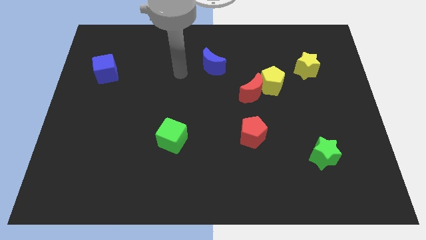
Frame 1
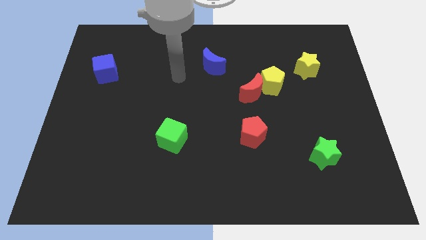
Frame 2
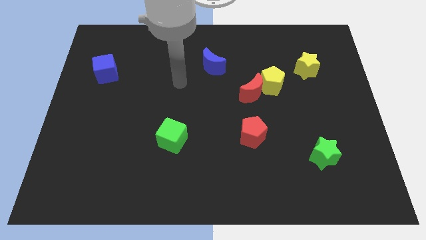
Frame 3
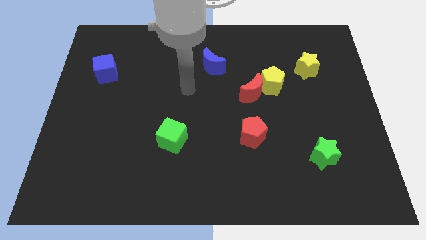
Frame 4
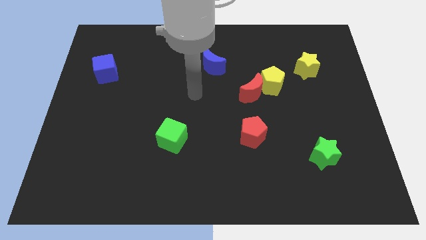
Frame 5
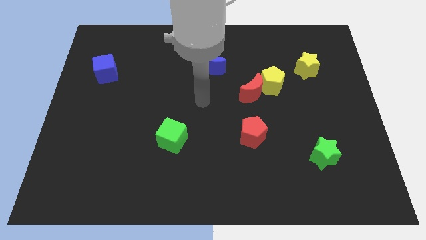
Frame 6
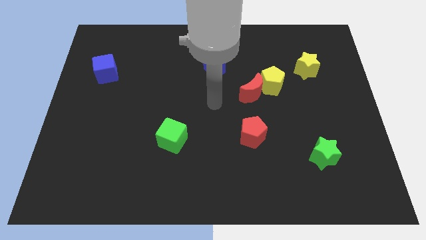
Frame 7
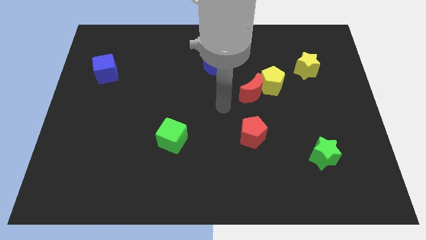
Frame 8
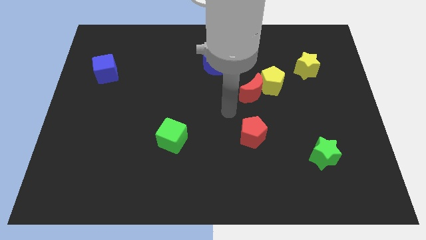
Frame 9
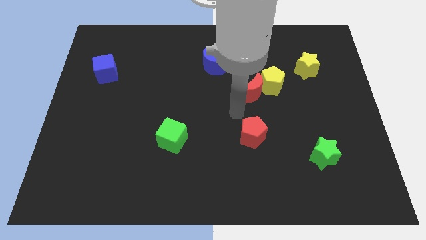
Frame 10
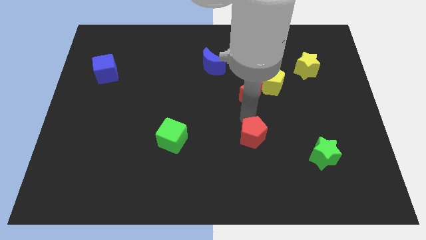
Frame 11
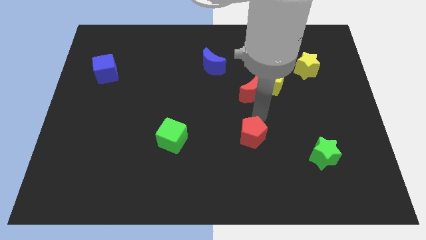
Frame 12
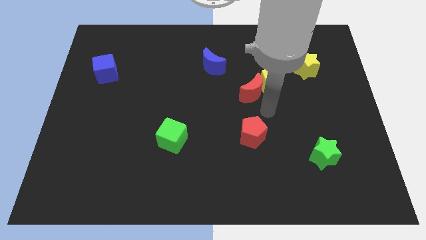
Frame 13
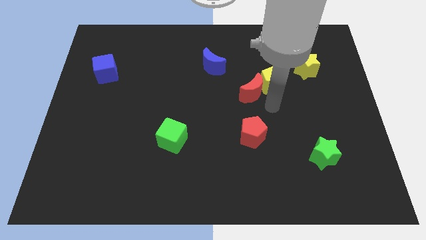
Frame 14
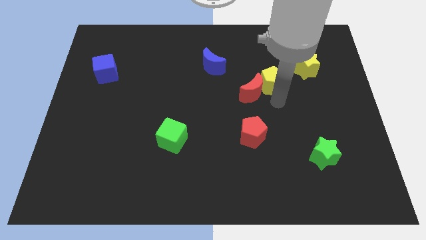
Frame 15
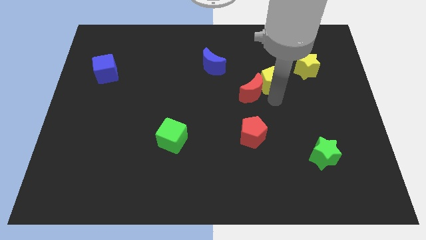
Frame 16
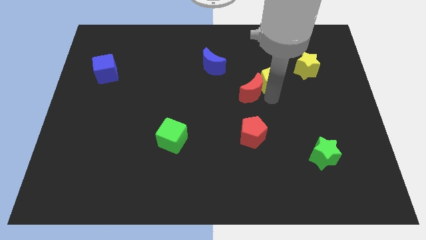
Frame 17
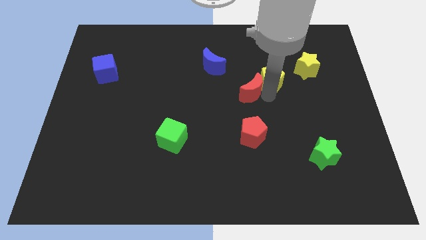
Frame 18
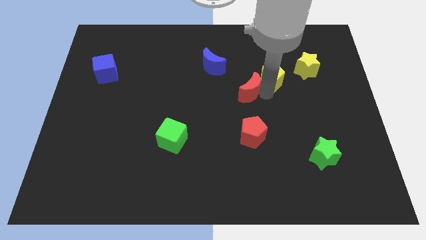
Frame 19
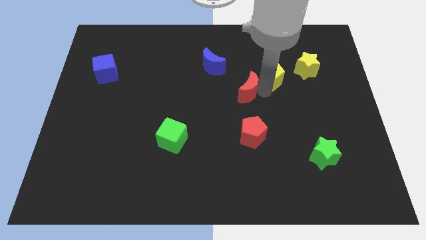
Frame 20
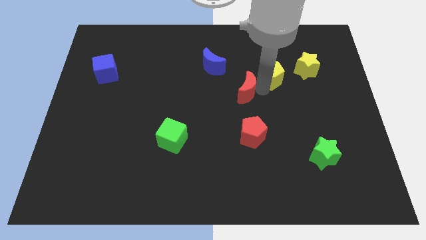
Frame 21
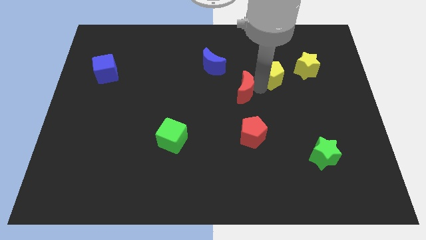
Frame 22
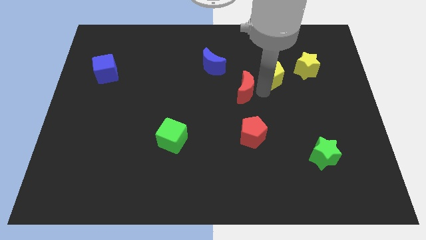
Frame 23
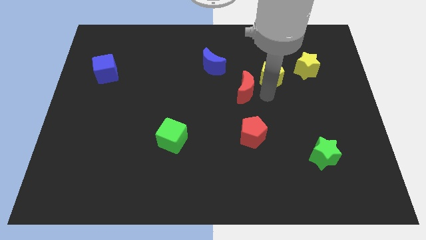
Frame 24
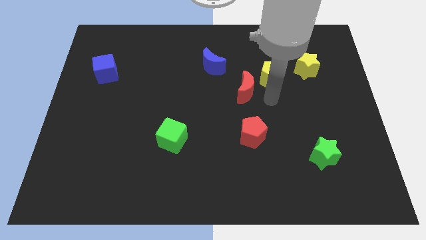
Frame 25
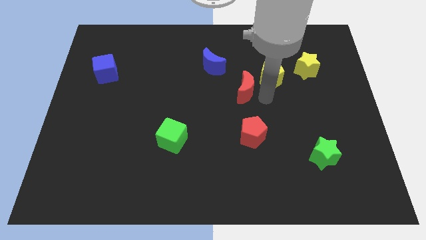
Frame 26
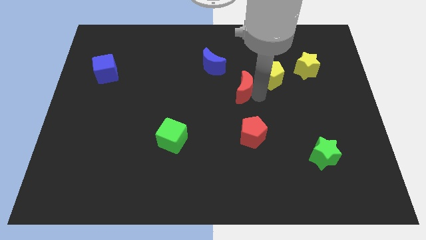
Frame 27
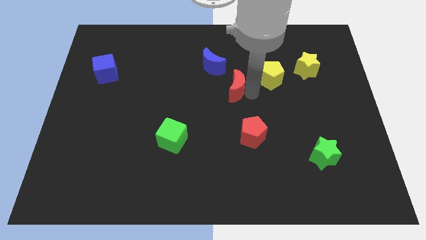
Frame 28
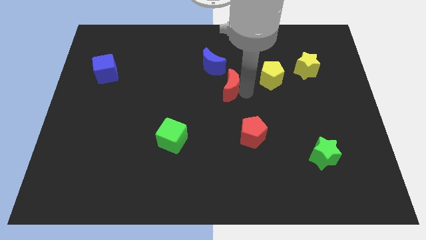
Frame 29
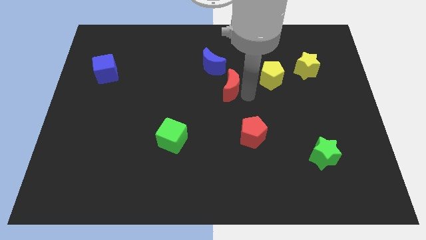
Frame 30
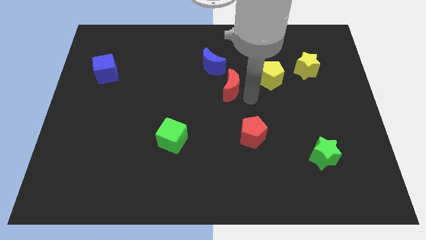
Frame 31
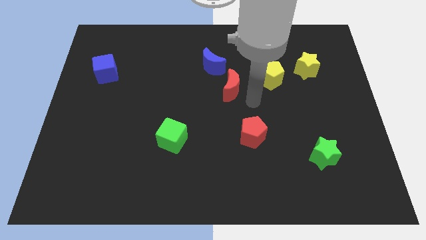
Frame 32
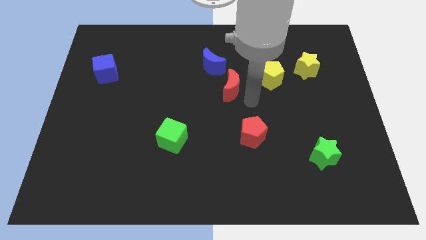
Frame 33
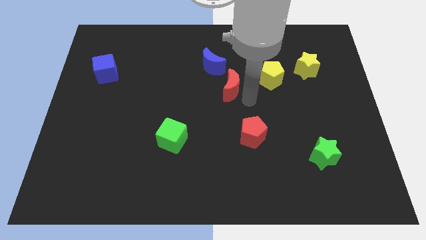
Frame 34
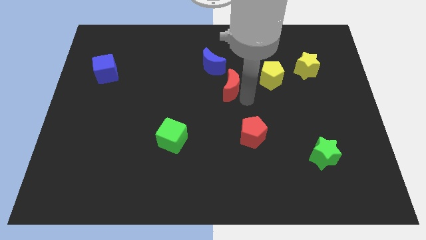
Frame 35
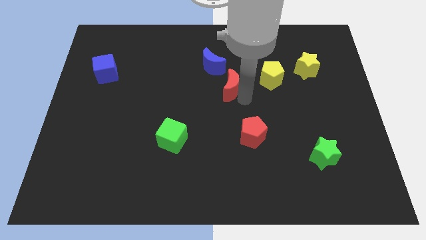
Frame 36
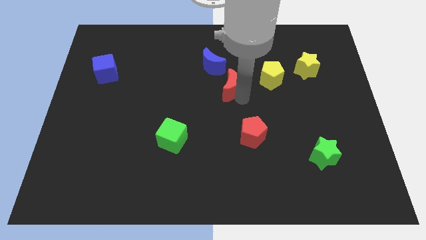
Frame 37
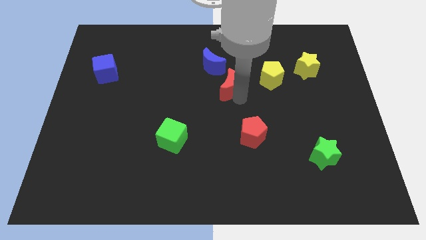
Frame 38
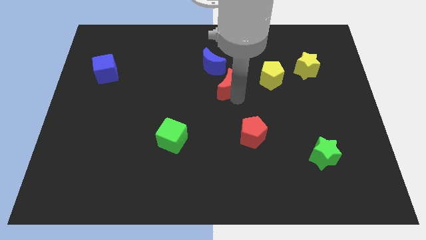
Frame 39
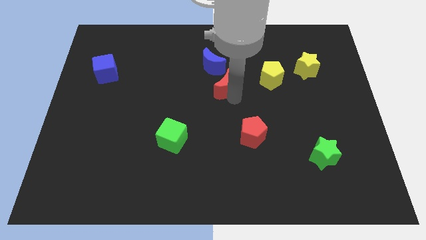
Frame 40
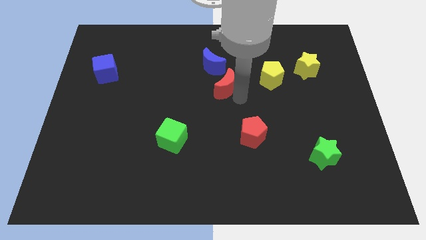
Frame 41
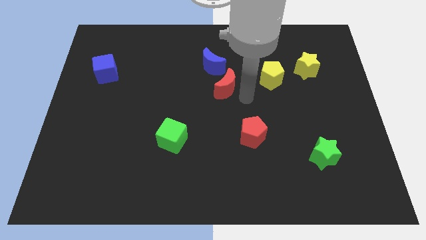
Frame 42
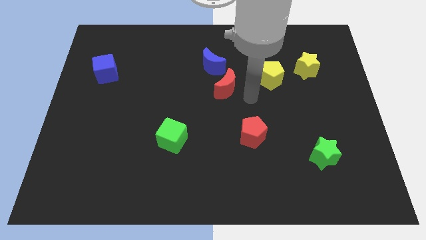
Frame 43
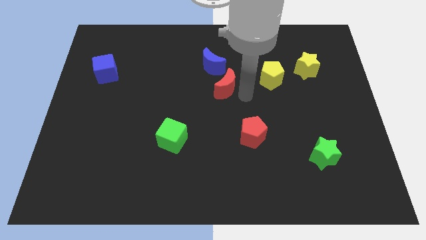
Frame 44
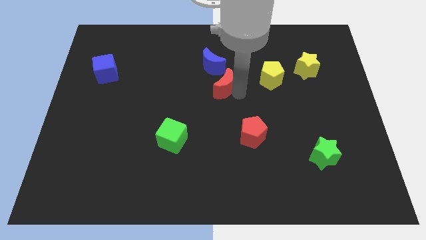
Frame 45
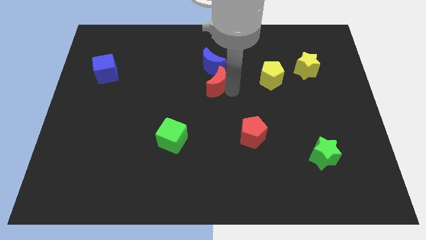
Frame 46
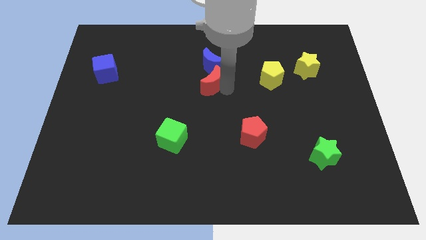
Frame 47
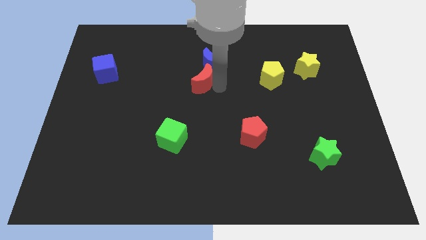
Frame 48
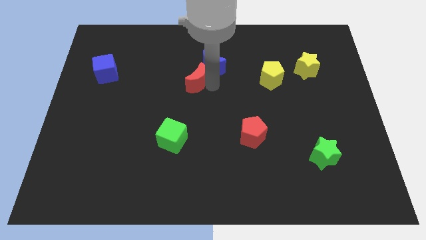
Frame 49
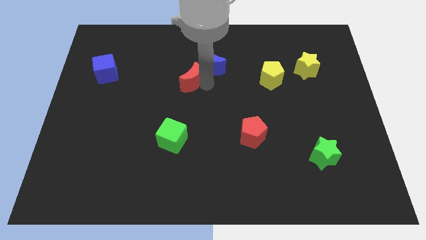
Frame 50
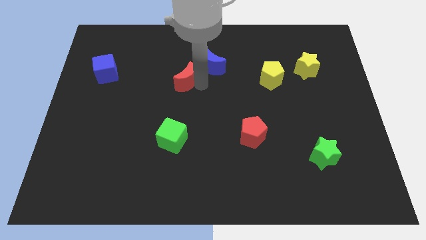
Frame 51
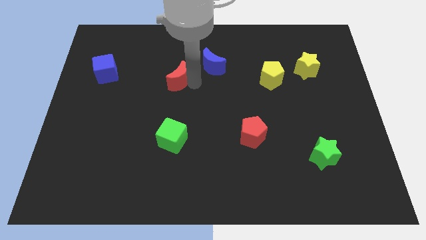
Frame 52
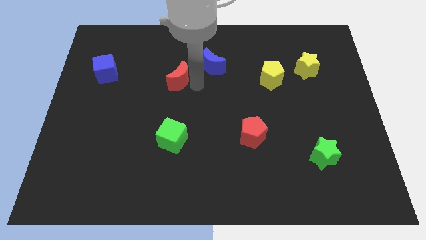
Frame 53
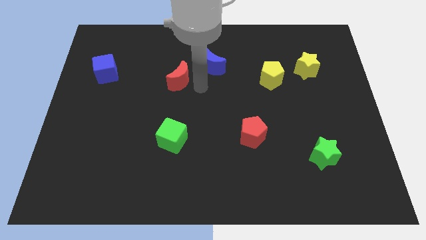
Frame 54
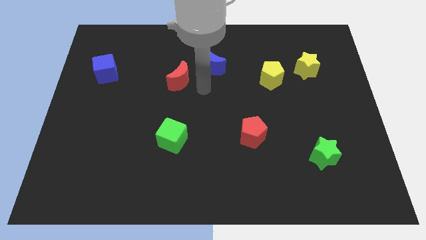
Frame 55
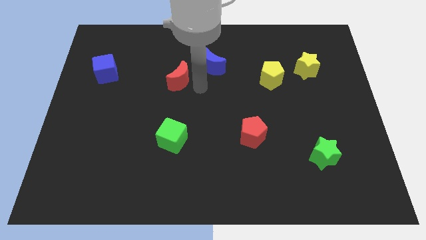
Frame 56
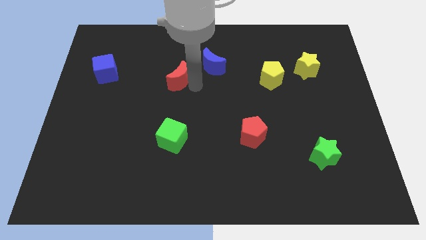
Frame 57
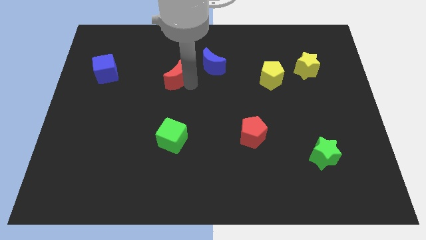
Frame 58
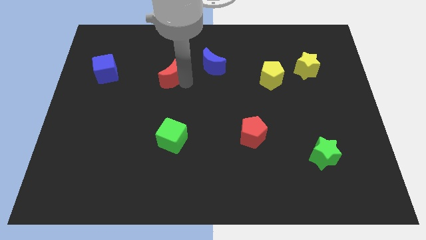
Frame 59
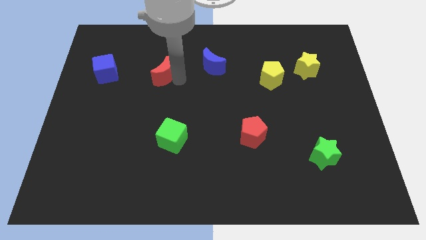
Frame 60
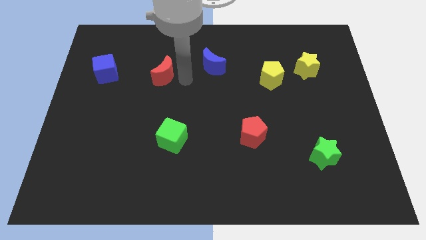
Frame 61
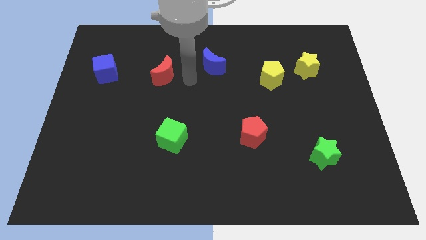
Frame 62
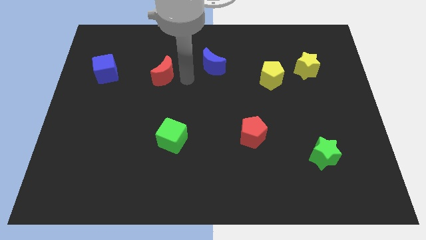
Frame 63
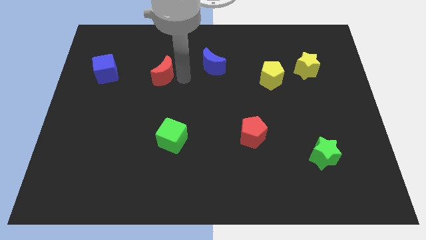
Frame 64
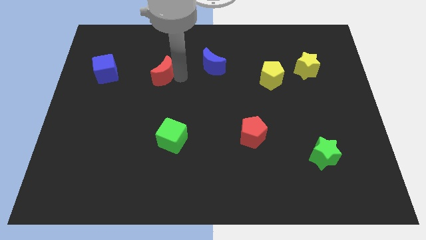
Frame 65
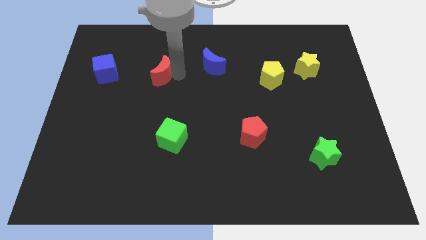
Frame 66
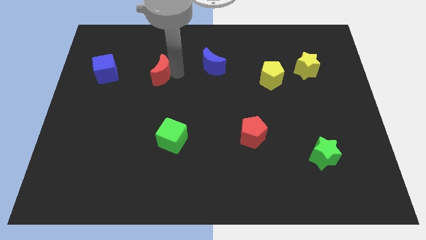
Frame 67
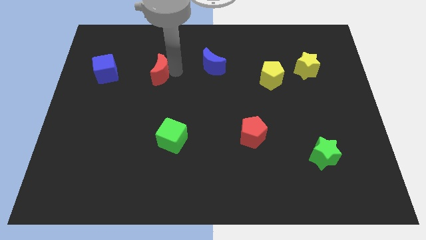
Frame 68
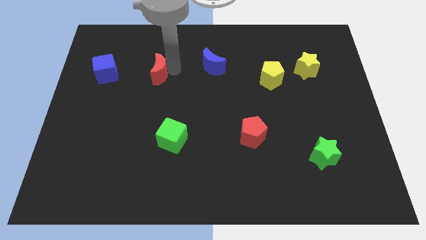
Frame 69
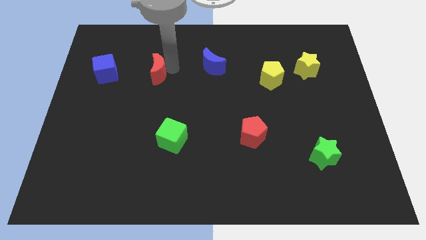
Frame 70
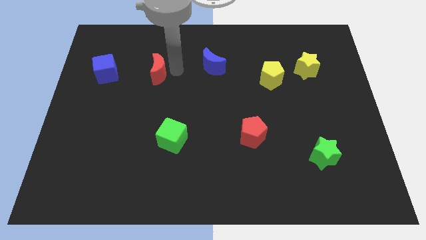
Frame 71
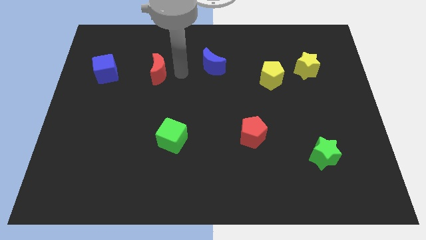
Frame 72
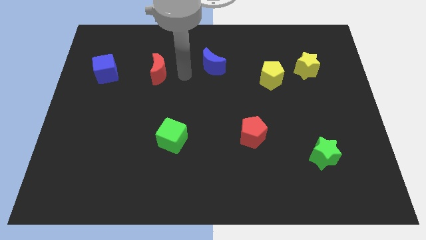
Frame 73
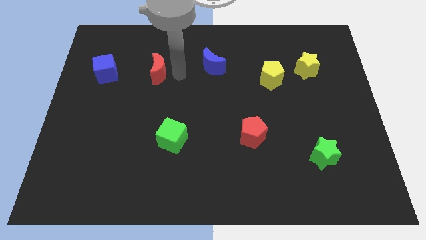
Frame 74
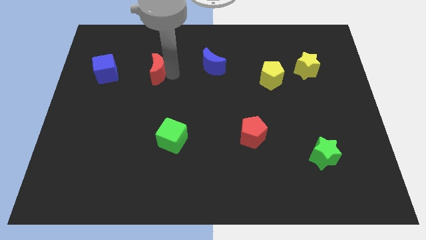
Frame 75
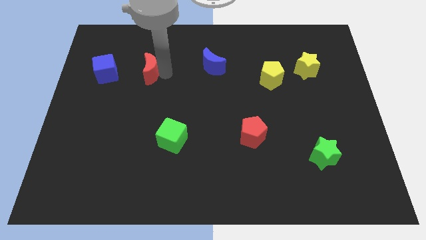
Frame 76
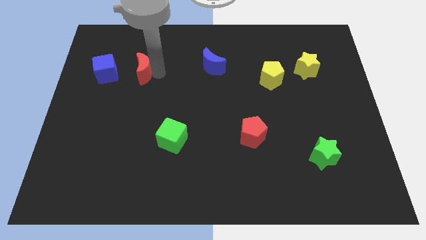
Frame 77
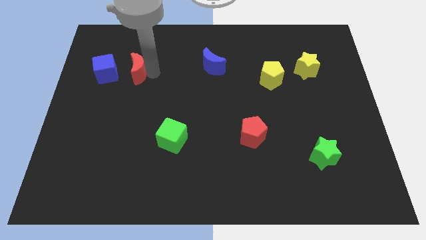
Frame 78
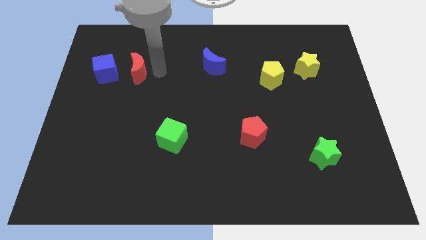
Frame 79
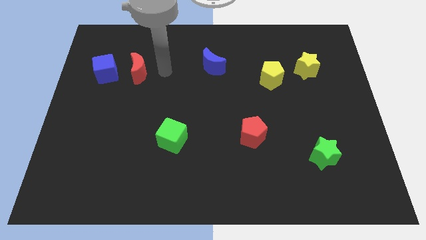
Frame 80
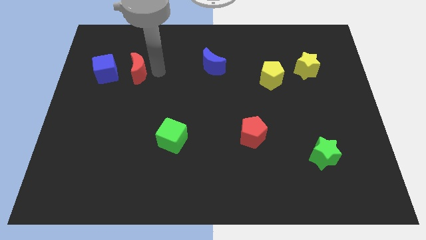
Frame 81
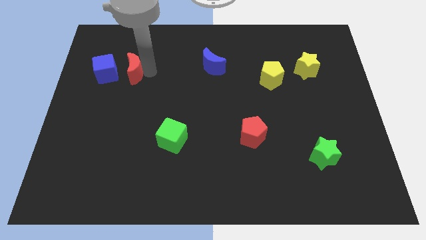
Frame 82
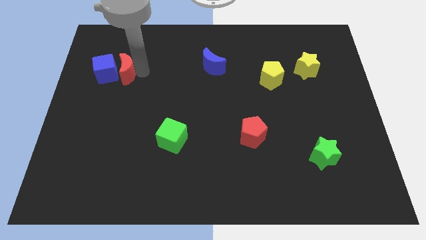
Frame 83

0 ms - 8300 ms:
push the red moon to the blue cube
